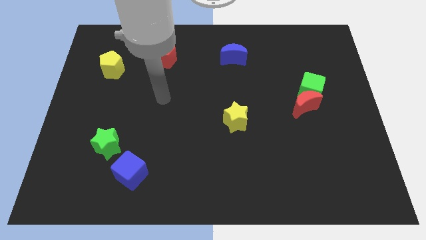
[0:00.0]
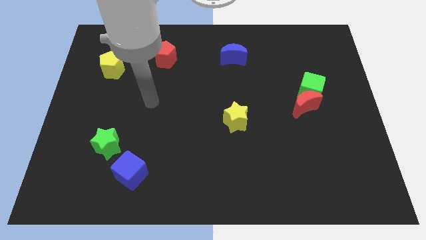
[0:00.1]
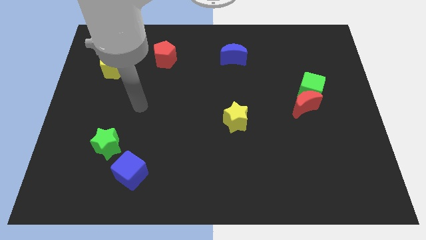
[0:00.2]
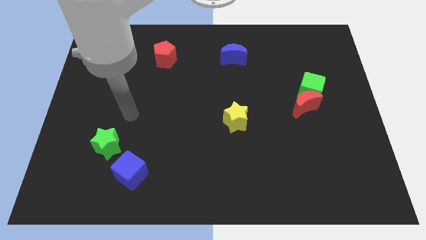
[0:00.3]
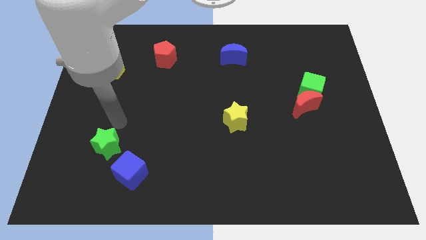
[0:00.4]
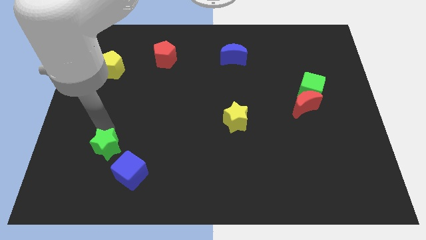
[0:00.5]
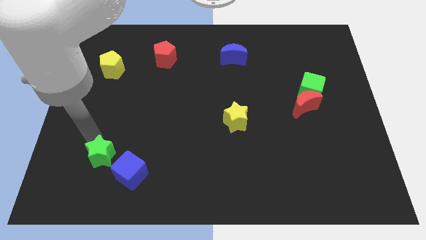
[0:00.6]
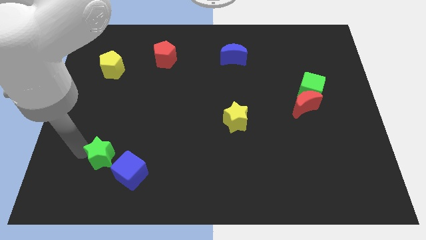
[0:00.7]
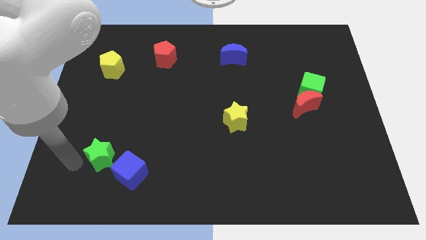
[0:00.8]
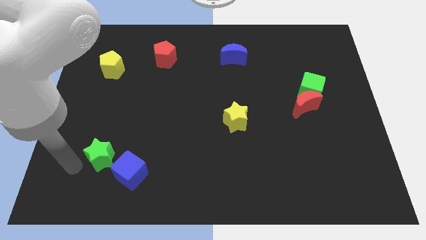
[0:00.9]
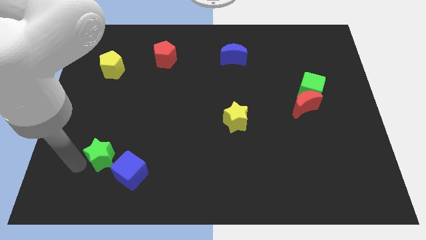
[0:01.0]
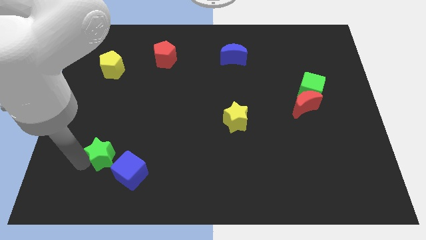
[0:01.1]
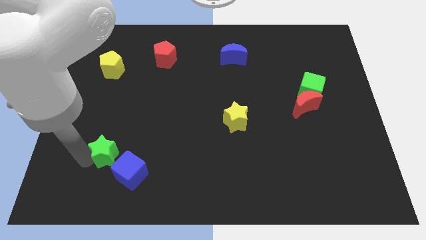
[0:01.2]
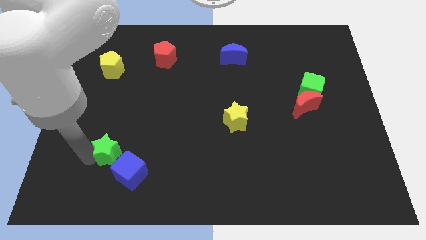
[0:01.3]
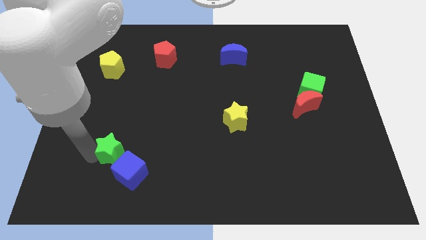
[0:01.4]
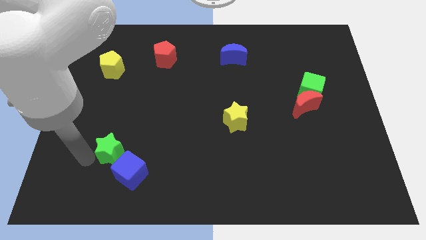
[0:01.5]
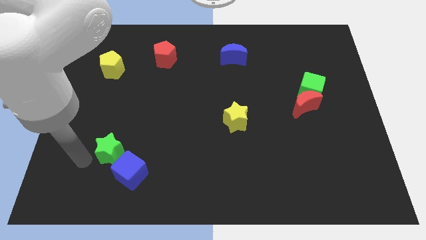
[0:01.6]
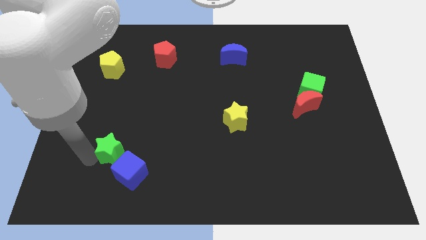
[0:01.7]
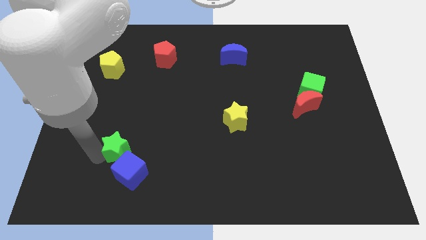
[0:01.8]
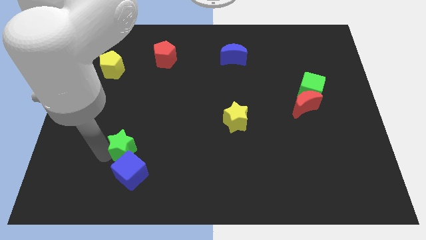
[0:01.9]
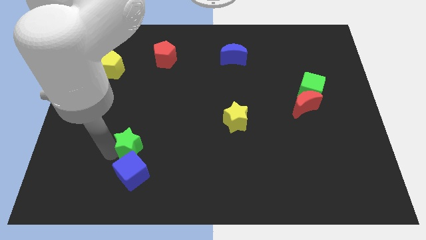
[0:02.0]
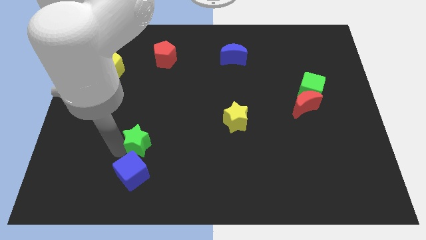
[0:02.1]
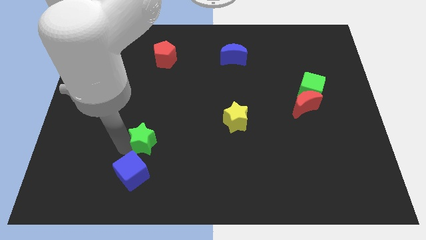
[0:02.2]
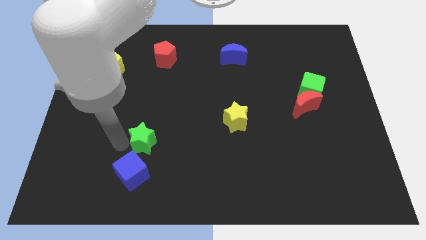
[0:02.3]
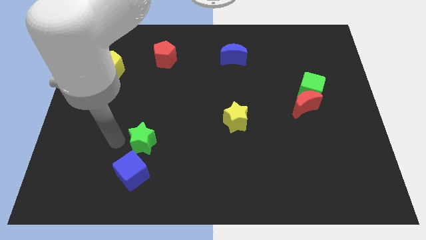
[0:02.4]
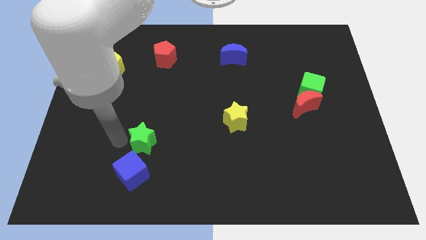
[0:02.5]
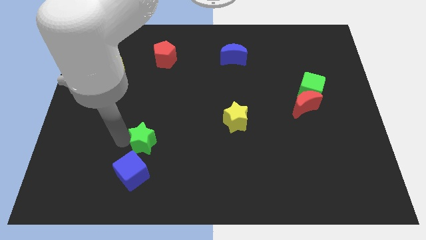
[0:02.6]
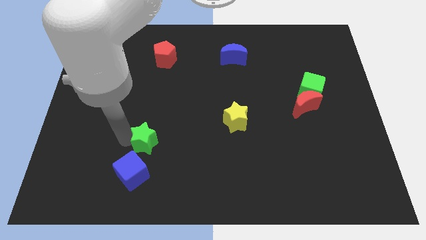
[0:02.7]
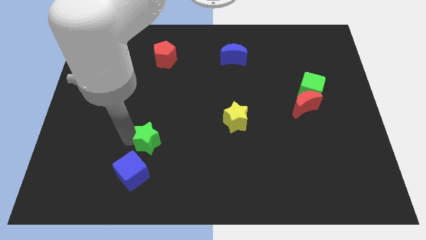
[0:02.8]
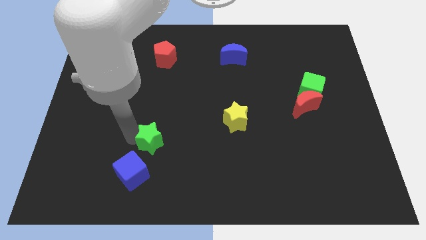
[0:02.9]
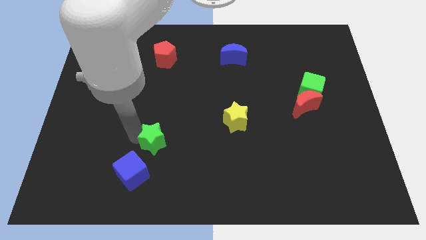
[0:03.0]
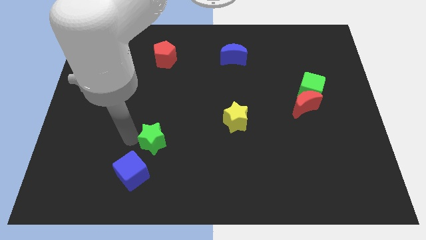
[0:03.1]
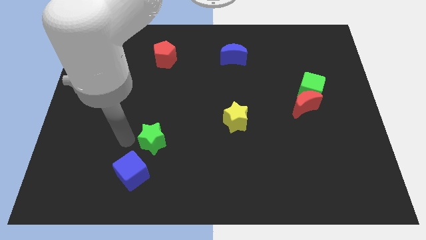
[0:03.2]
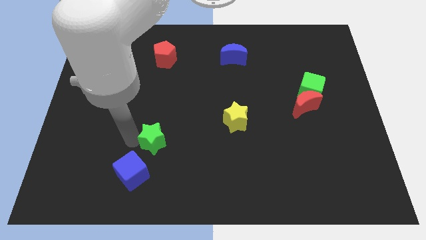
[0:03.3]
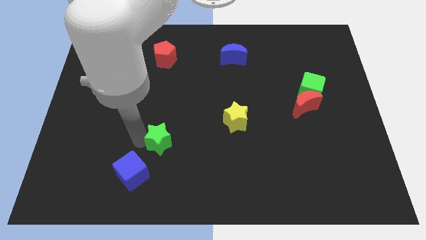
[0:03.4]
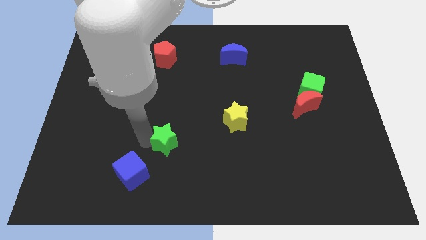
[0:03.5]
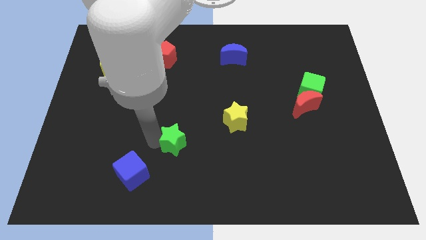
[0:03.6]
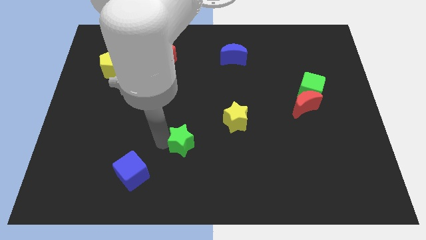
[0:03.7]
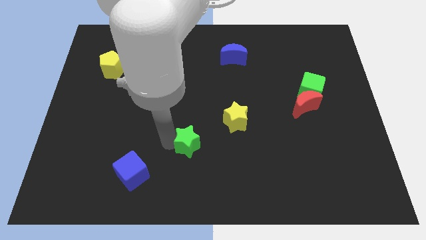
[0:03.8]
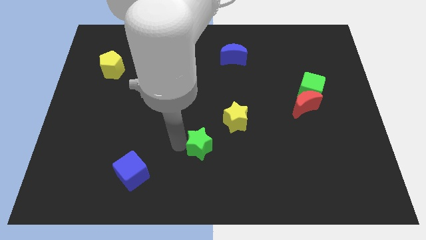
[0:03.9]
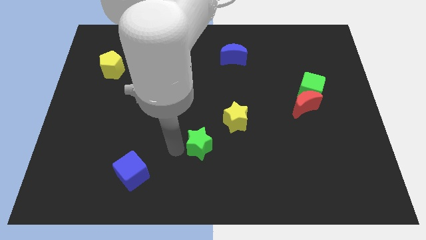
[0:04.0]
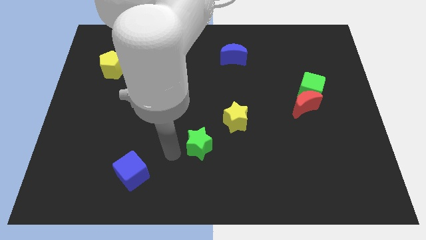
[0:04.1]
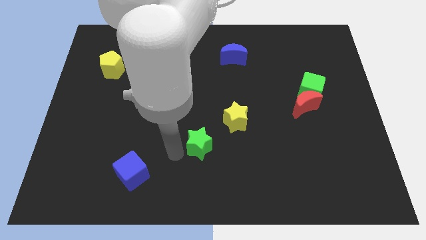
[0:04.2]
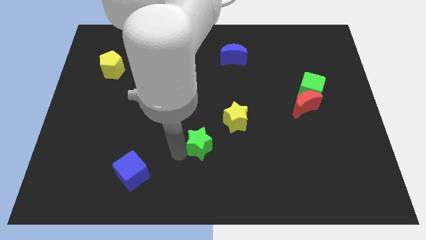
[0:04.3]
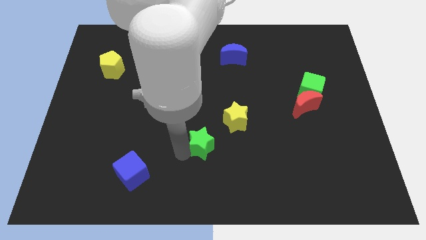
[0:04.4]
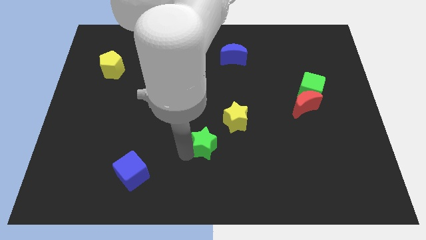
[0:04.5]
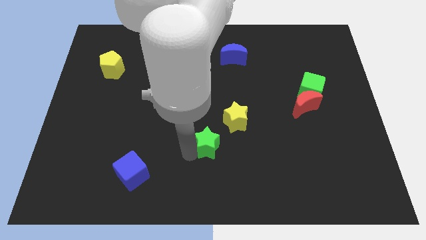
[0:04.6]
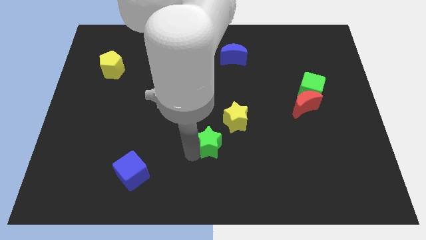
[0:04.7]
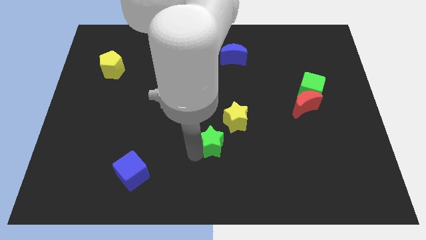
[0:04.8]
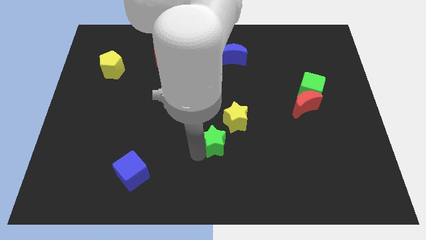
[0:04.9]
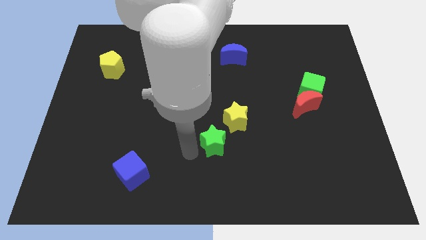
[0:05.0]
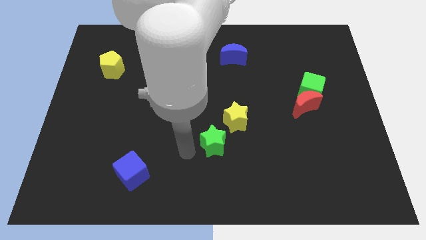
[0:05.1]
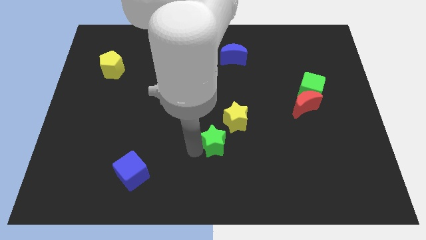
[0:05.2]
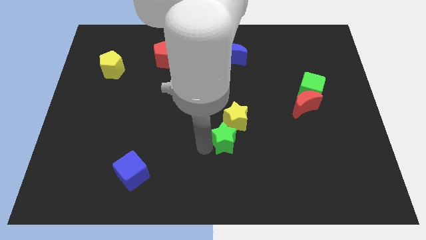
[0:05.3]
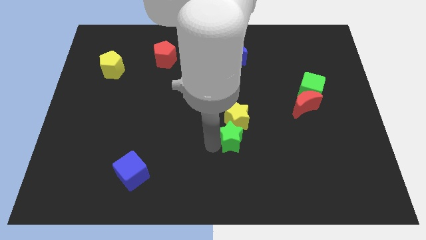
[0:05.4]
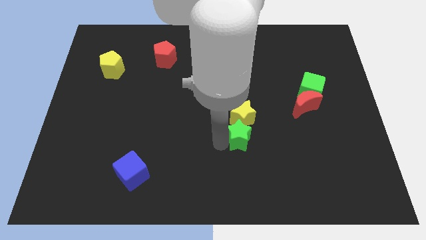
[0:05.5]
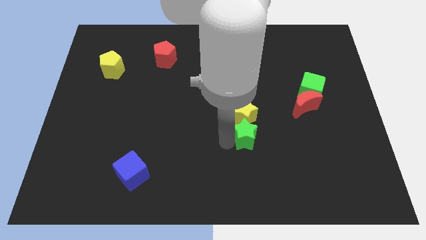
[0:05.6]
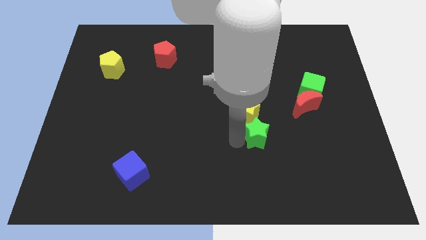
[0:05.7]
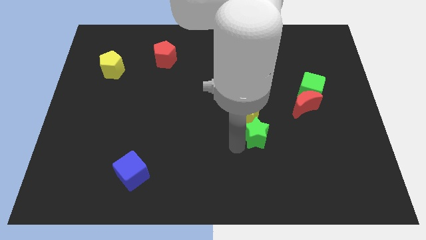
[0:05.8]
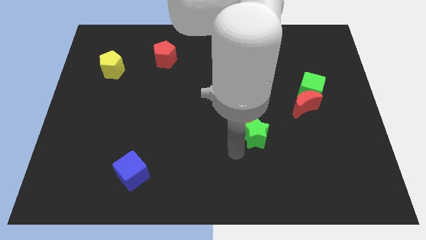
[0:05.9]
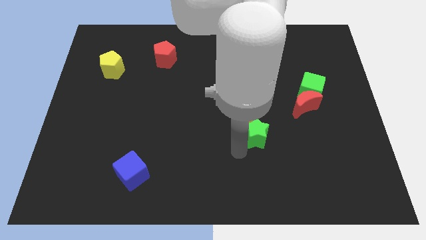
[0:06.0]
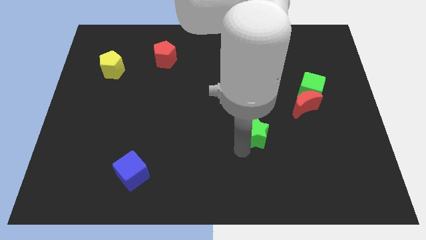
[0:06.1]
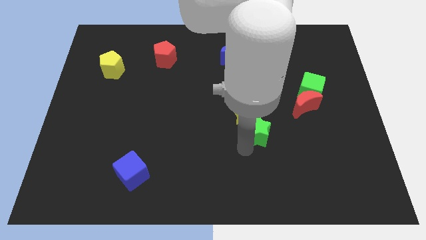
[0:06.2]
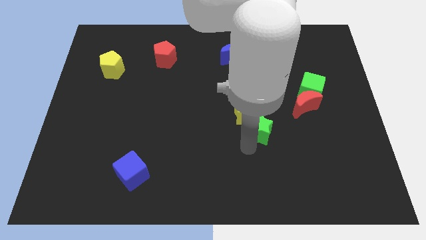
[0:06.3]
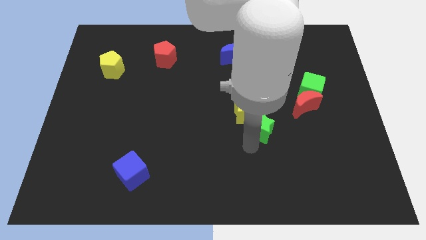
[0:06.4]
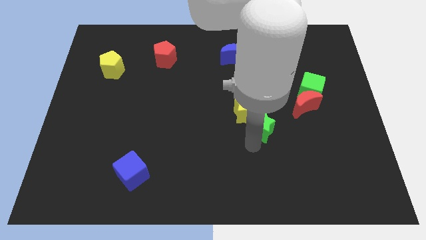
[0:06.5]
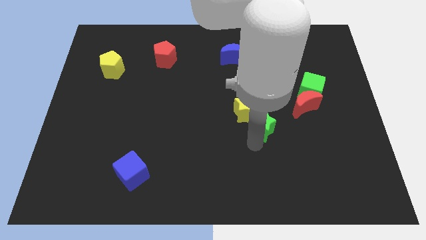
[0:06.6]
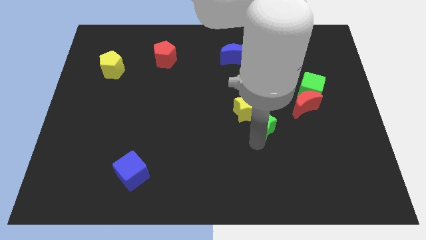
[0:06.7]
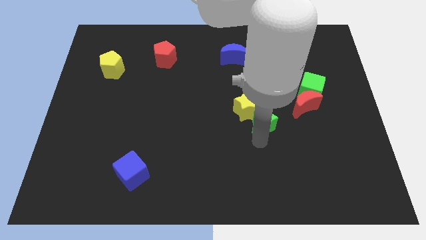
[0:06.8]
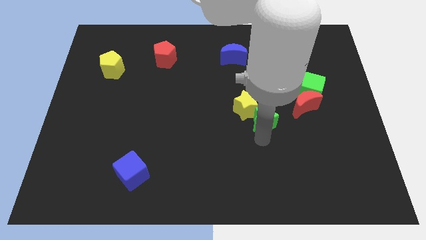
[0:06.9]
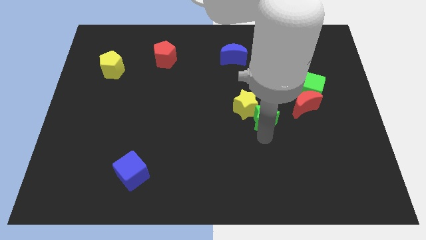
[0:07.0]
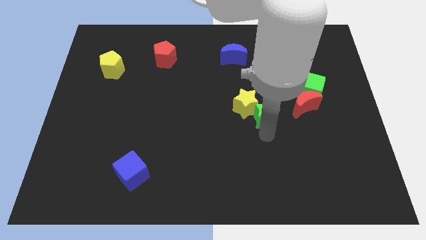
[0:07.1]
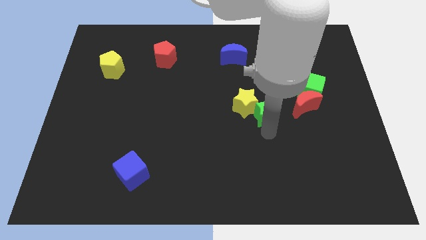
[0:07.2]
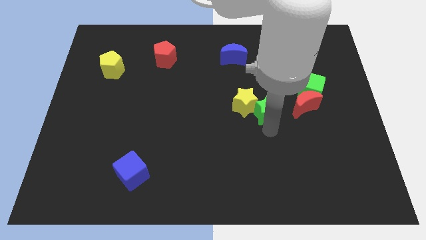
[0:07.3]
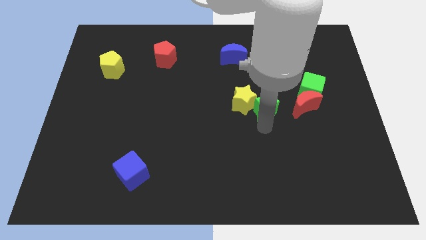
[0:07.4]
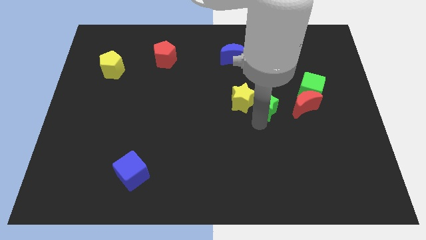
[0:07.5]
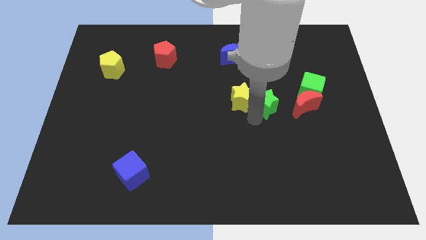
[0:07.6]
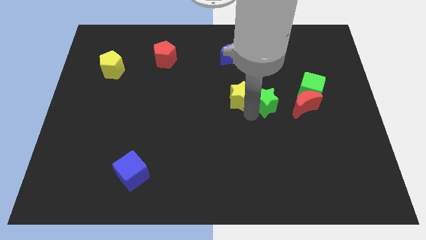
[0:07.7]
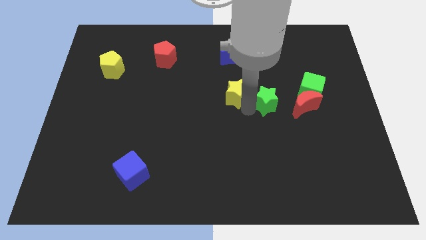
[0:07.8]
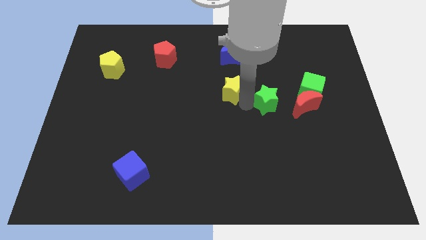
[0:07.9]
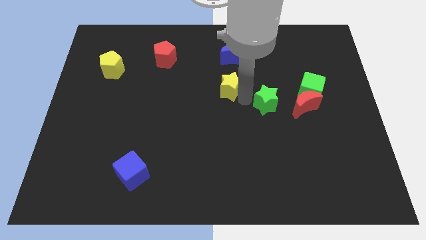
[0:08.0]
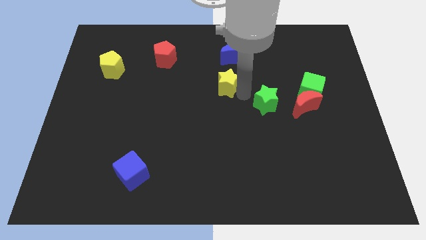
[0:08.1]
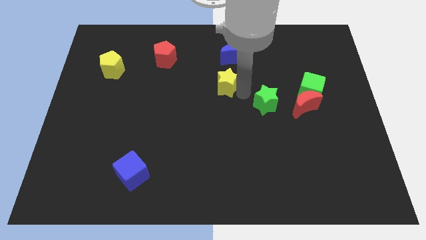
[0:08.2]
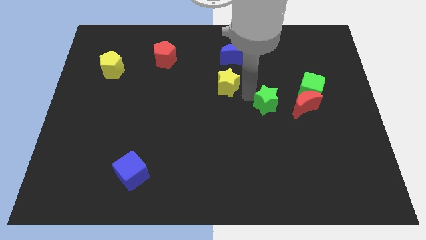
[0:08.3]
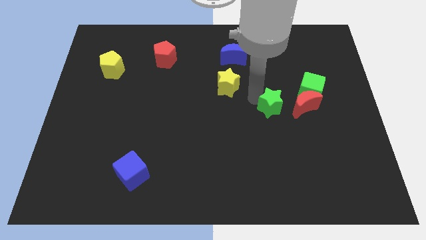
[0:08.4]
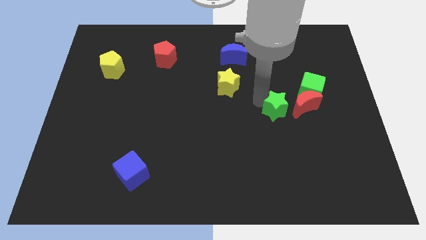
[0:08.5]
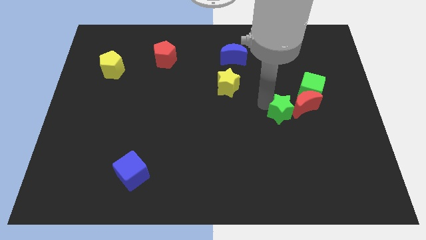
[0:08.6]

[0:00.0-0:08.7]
push the green star towards the red moon
